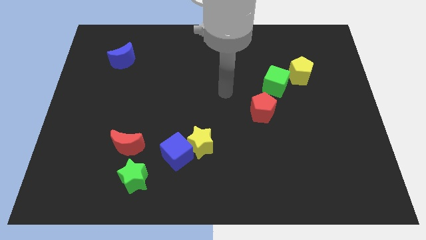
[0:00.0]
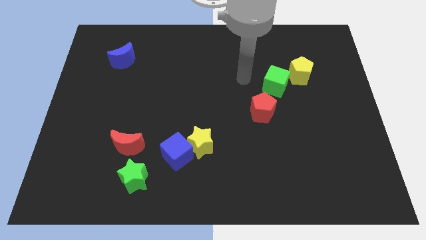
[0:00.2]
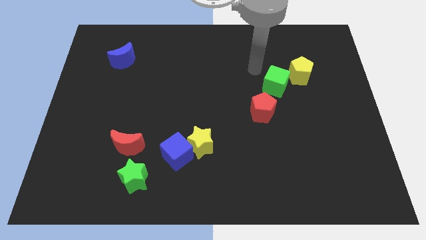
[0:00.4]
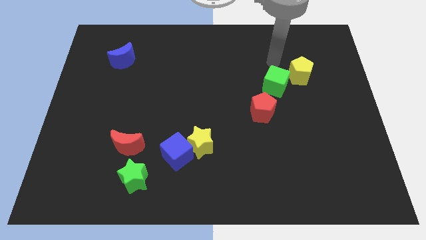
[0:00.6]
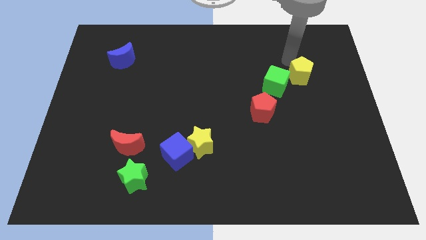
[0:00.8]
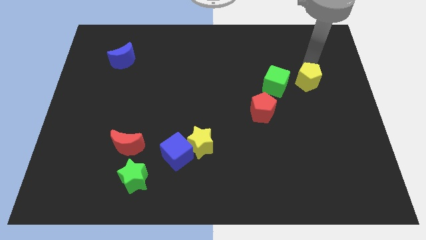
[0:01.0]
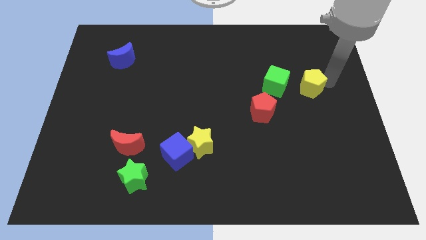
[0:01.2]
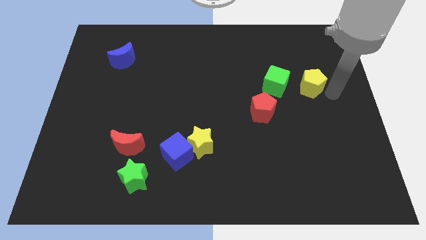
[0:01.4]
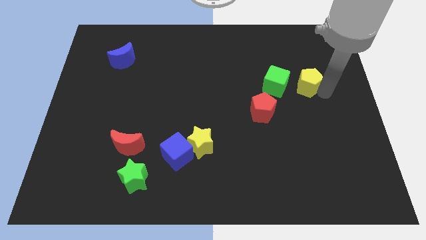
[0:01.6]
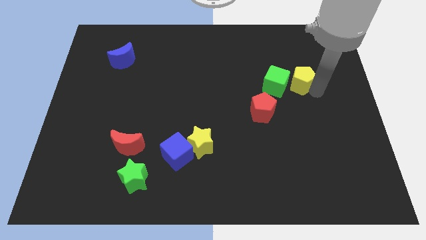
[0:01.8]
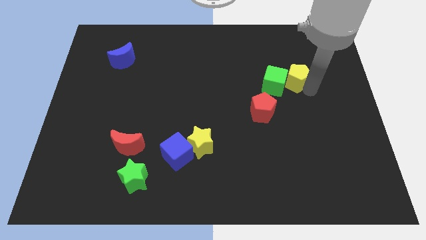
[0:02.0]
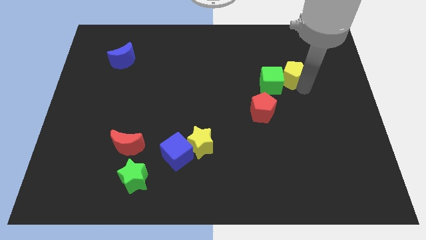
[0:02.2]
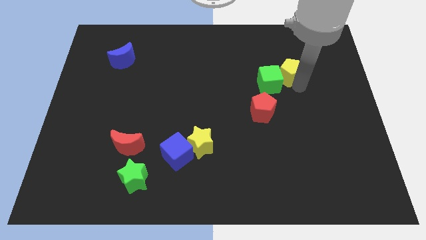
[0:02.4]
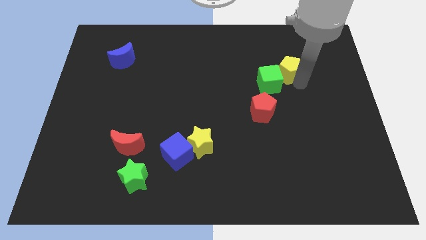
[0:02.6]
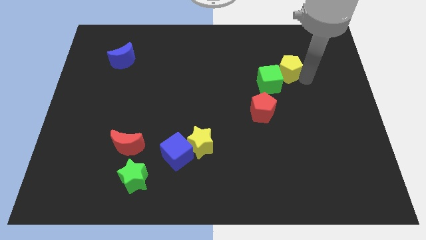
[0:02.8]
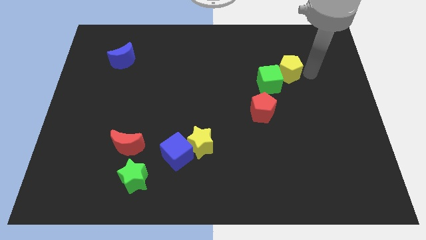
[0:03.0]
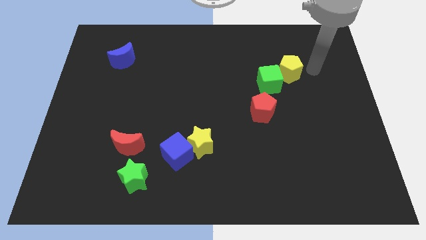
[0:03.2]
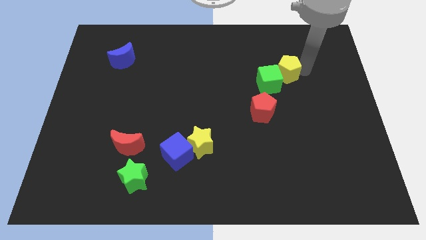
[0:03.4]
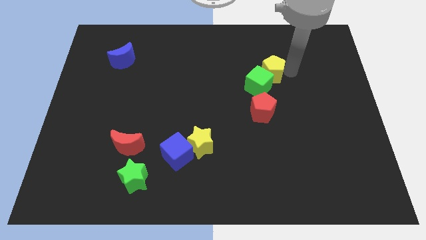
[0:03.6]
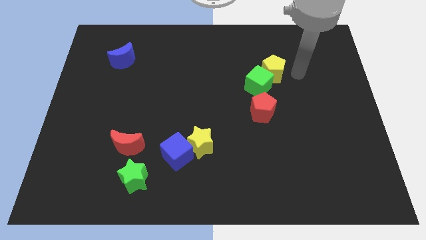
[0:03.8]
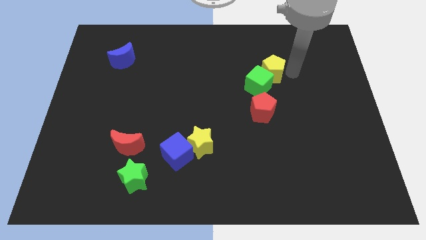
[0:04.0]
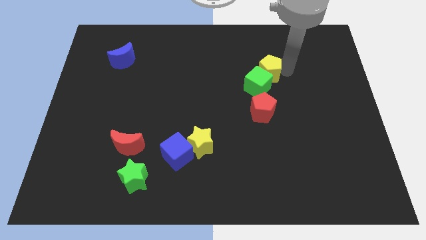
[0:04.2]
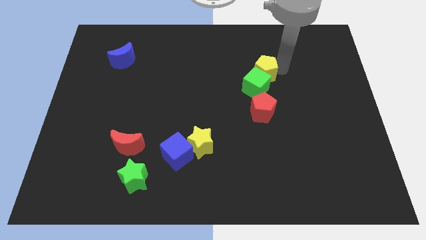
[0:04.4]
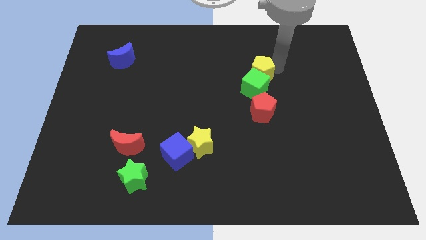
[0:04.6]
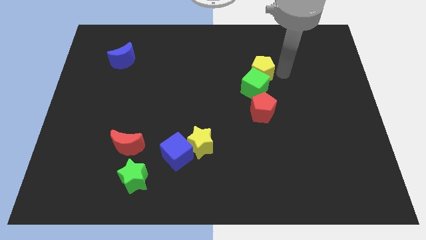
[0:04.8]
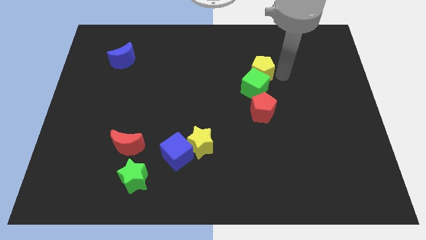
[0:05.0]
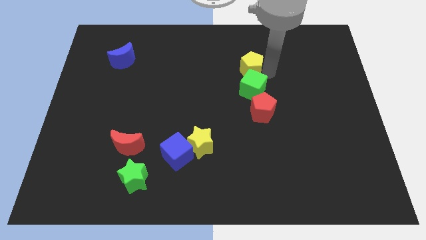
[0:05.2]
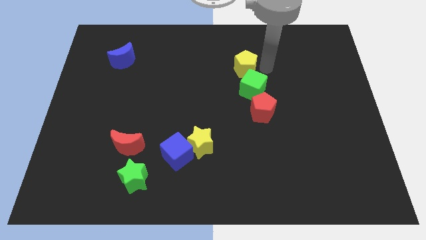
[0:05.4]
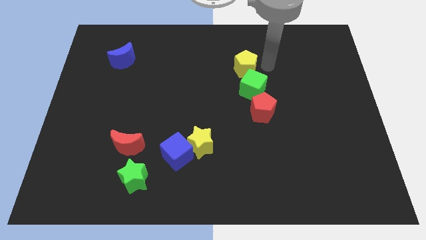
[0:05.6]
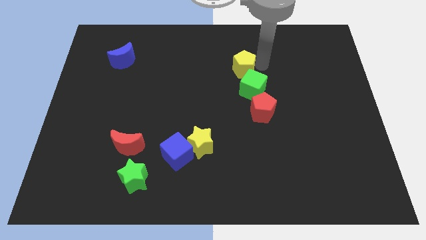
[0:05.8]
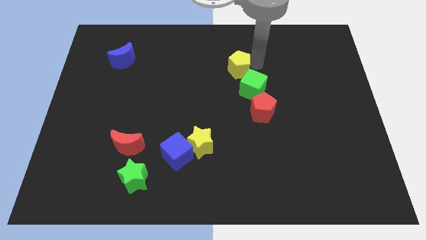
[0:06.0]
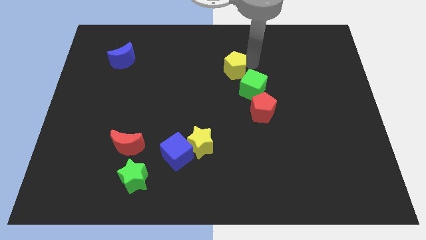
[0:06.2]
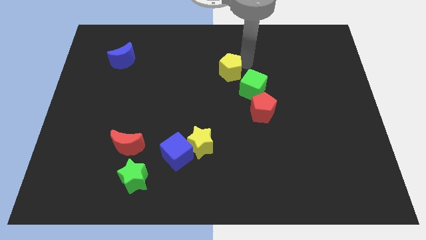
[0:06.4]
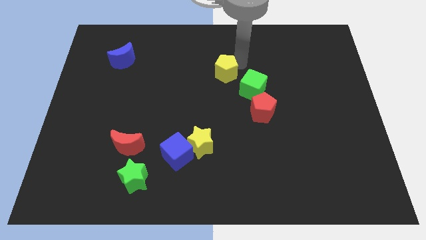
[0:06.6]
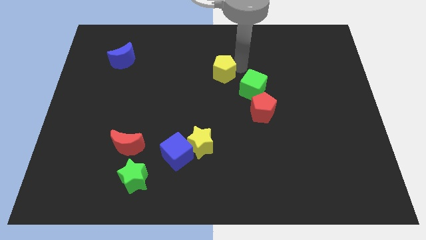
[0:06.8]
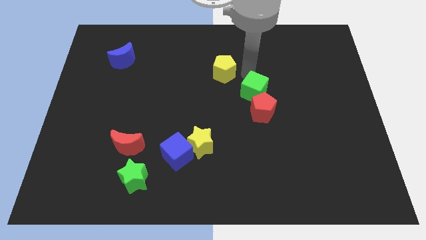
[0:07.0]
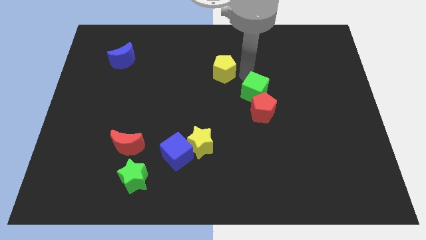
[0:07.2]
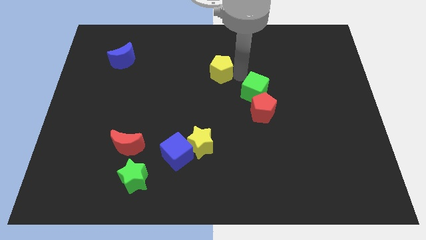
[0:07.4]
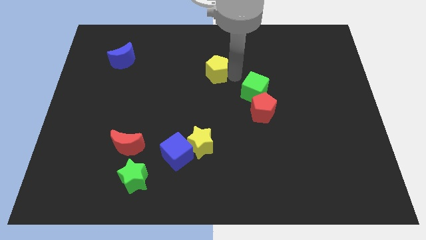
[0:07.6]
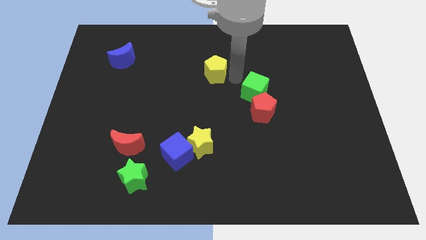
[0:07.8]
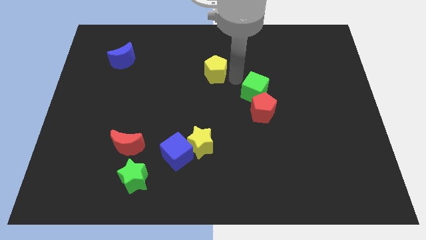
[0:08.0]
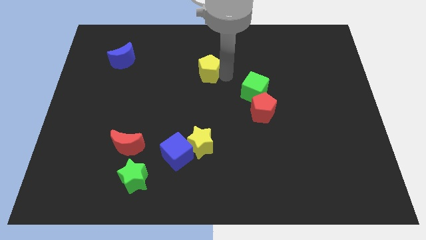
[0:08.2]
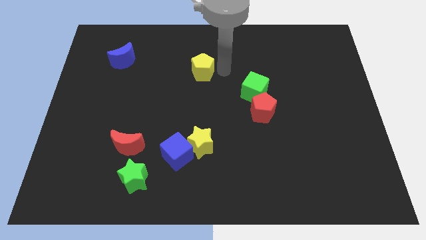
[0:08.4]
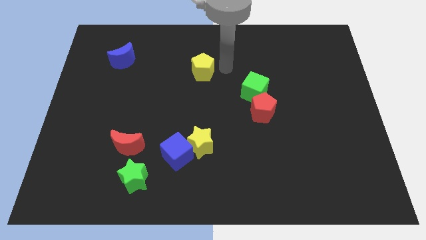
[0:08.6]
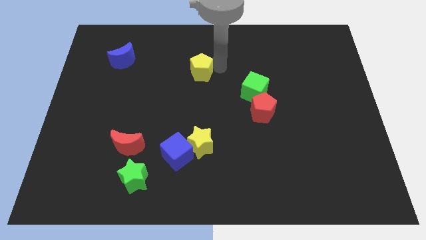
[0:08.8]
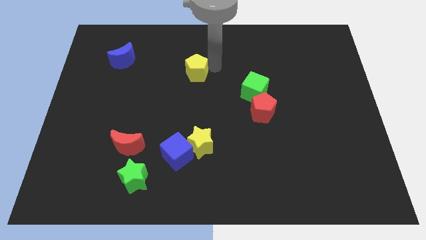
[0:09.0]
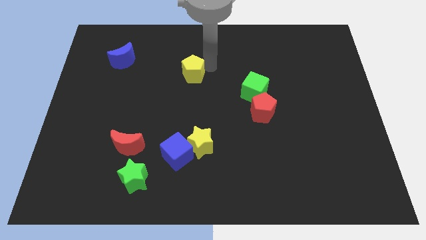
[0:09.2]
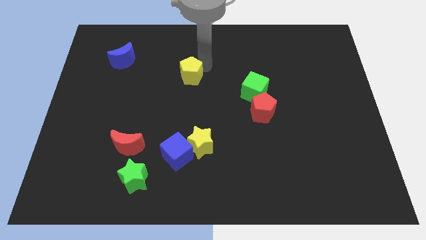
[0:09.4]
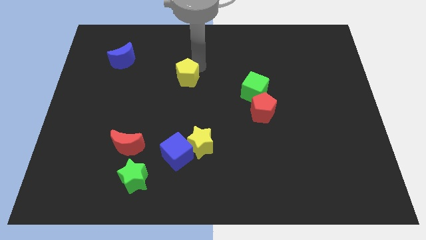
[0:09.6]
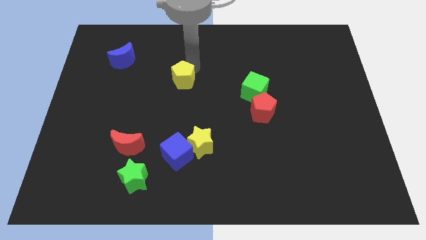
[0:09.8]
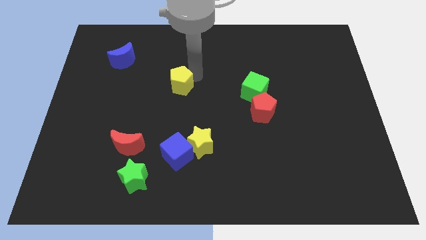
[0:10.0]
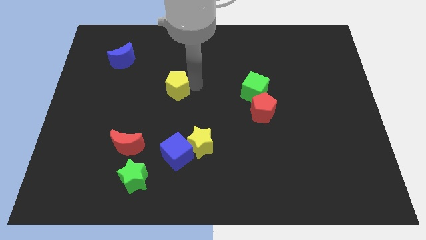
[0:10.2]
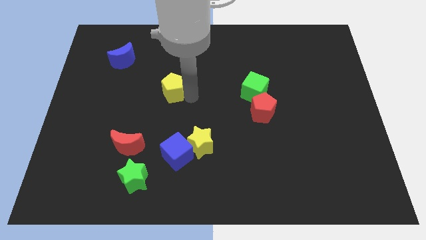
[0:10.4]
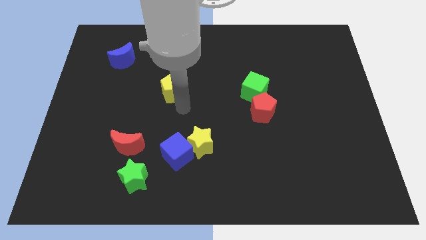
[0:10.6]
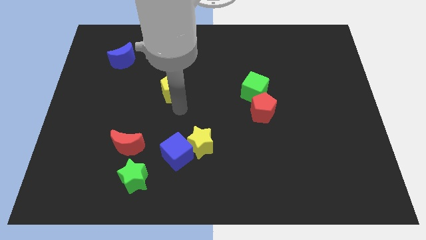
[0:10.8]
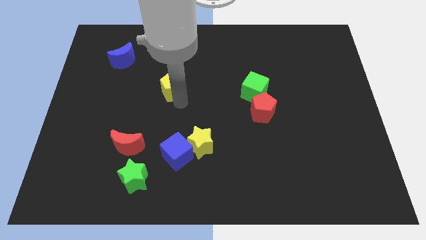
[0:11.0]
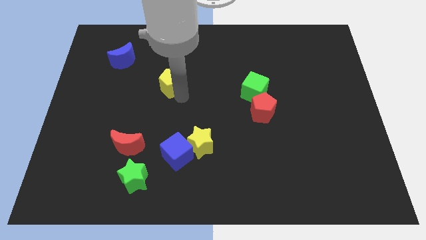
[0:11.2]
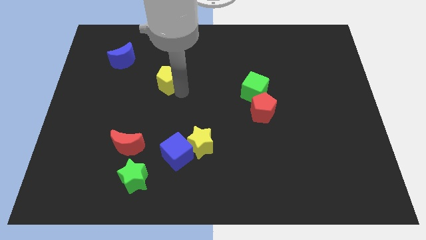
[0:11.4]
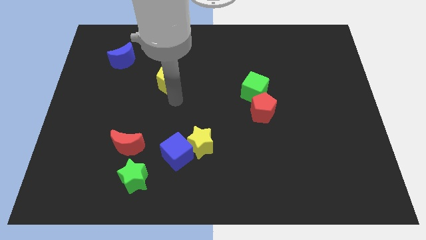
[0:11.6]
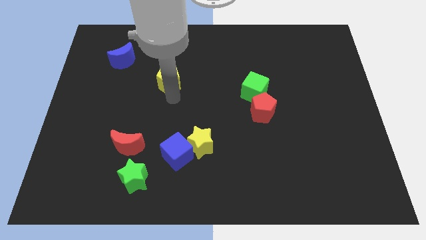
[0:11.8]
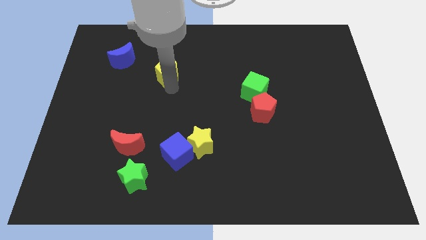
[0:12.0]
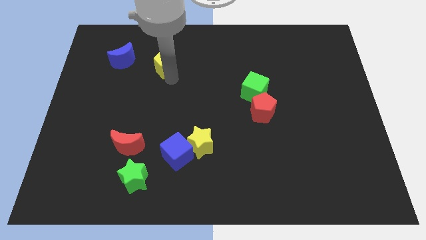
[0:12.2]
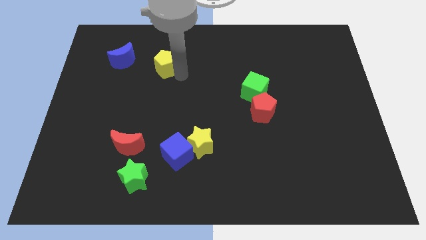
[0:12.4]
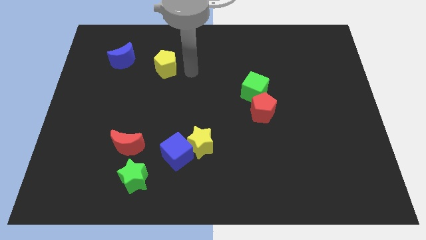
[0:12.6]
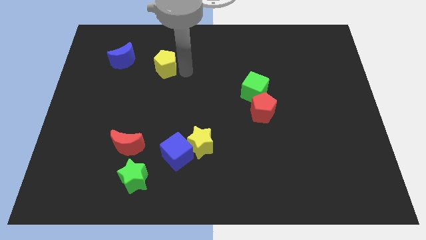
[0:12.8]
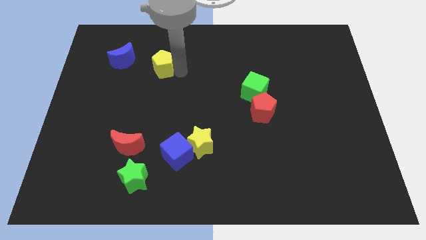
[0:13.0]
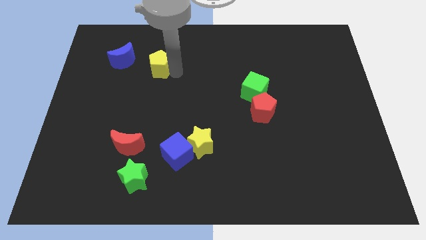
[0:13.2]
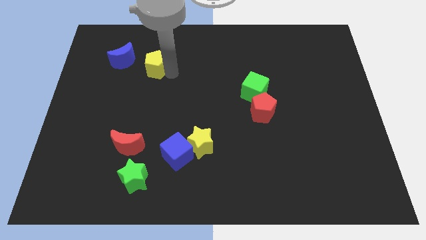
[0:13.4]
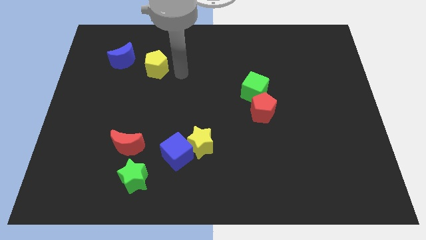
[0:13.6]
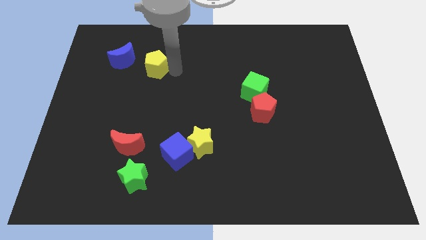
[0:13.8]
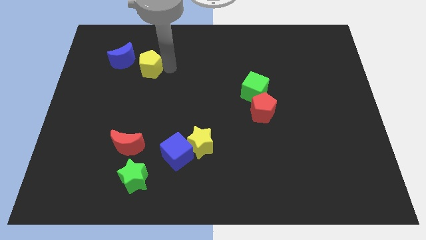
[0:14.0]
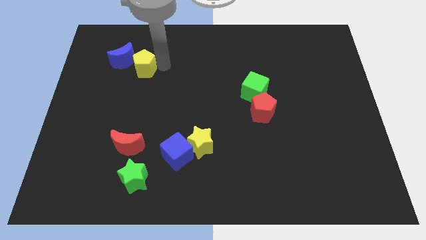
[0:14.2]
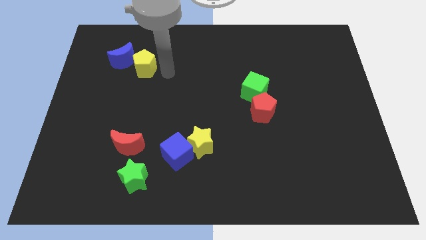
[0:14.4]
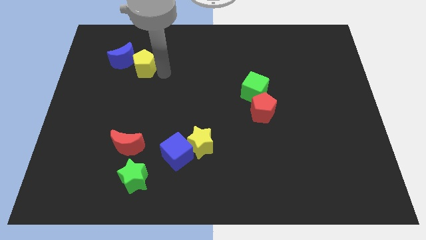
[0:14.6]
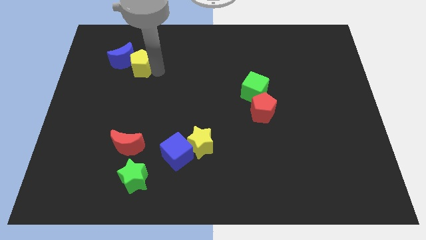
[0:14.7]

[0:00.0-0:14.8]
move the yellow pentagon to the blue moon

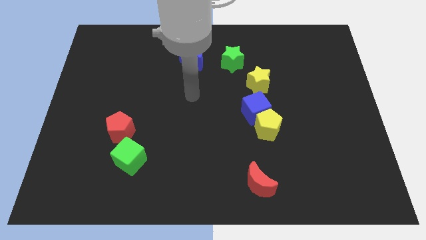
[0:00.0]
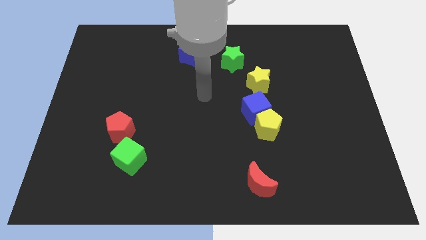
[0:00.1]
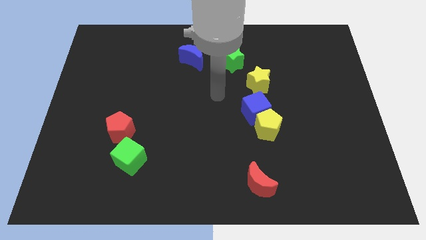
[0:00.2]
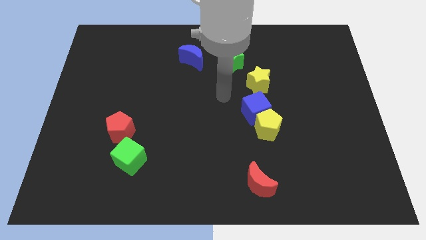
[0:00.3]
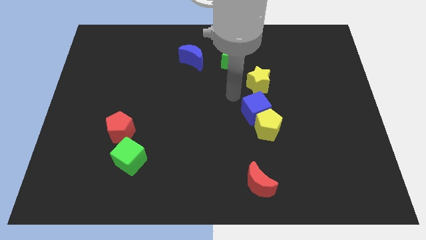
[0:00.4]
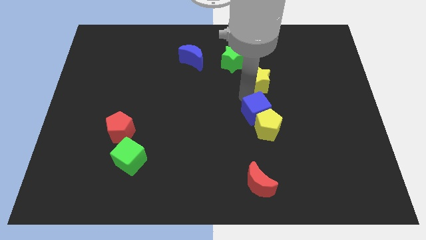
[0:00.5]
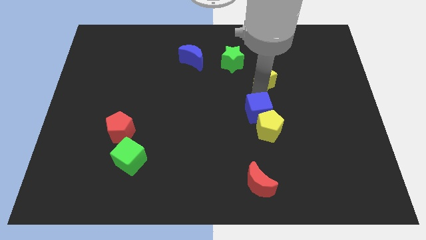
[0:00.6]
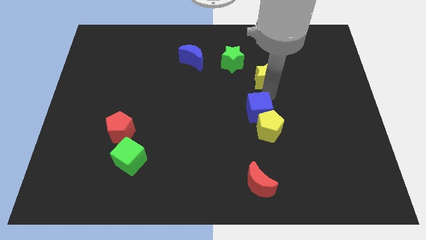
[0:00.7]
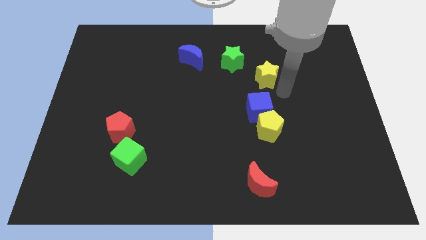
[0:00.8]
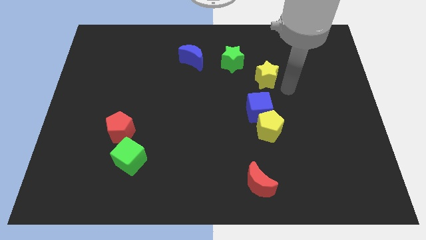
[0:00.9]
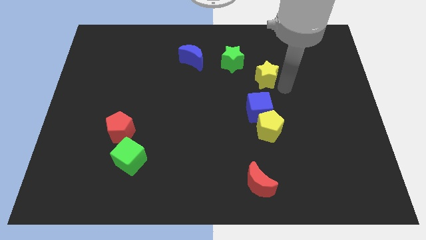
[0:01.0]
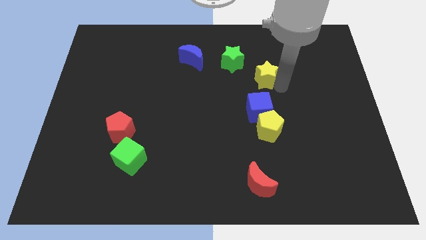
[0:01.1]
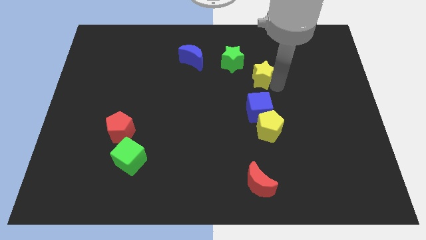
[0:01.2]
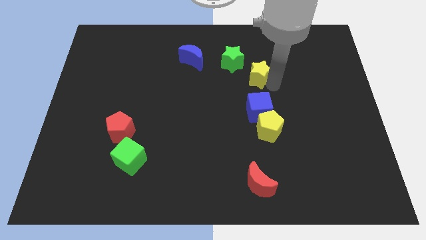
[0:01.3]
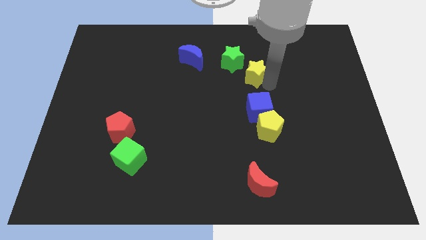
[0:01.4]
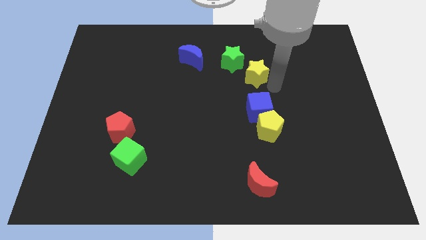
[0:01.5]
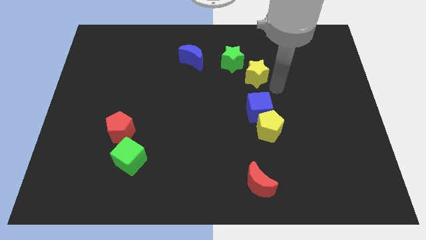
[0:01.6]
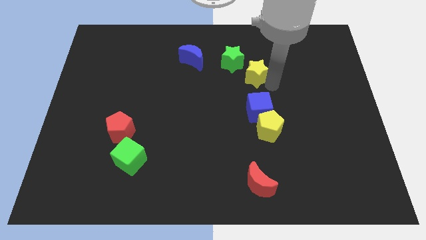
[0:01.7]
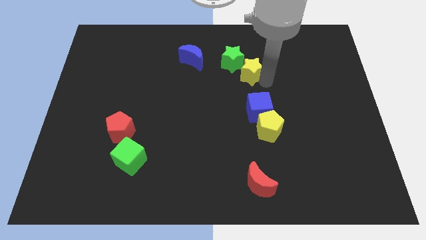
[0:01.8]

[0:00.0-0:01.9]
push the yellow star to the green star
